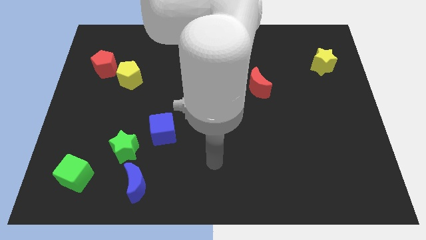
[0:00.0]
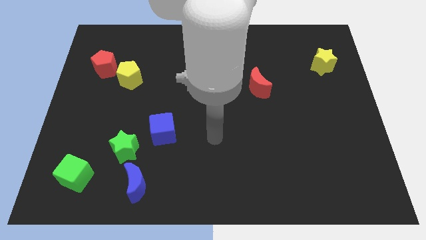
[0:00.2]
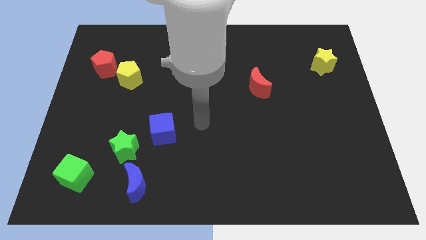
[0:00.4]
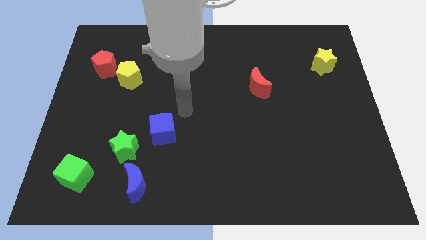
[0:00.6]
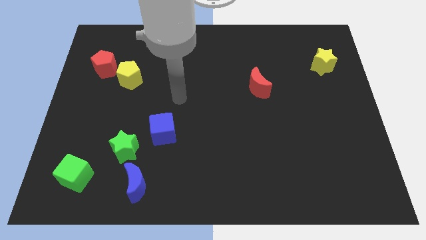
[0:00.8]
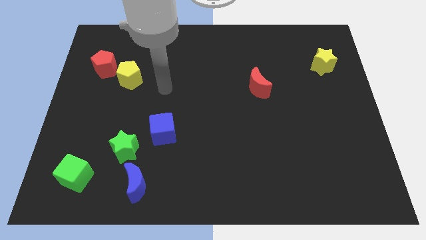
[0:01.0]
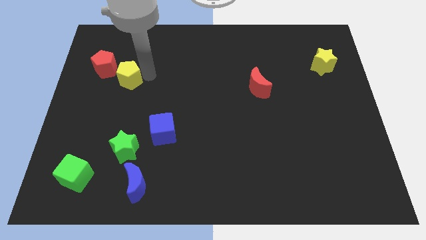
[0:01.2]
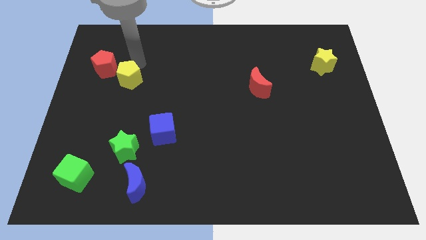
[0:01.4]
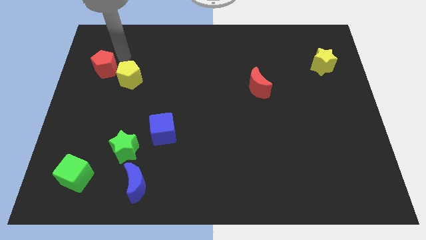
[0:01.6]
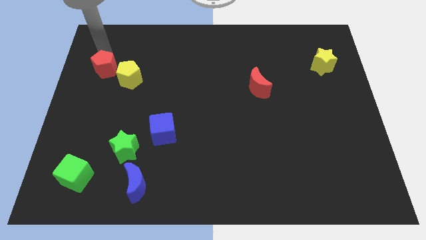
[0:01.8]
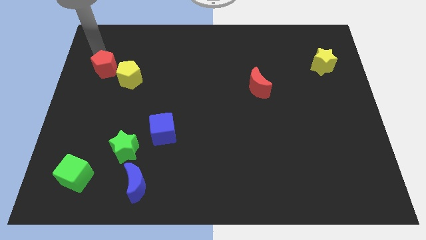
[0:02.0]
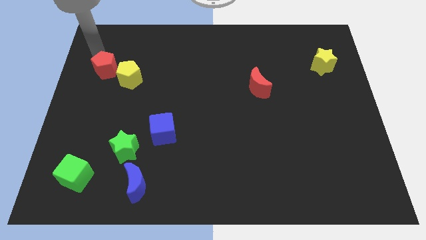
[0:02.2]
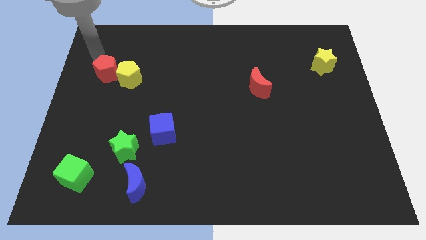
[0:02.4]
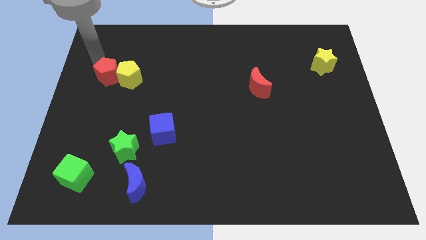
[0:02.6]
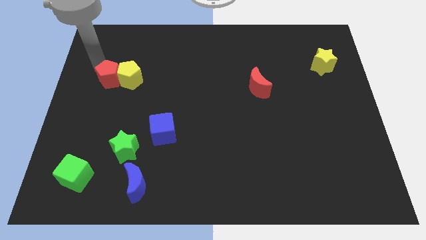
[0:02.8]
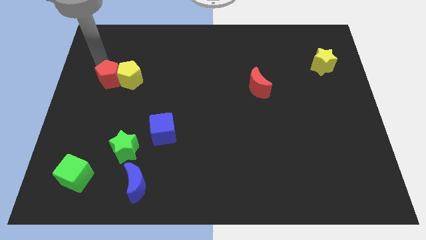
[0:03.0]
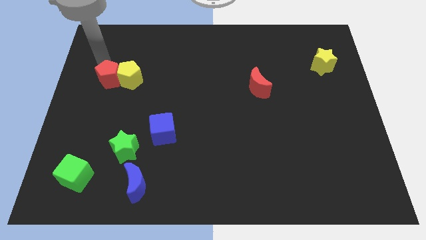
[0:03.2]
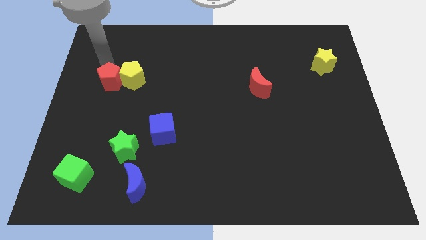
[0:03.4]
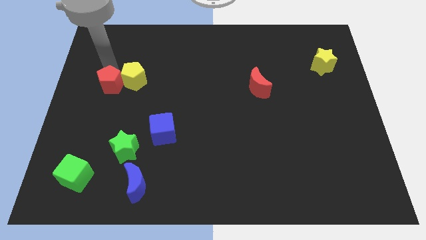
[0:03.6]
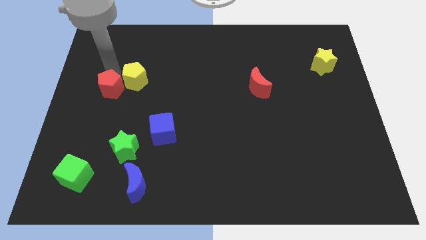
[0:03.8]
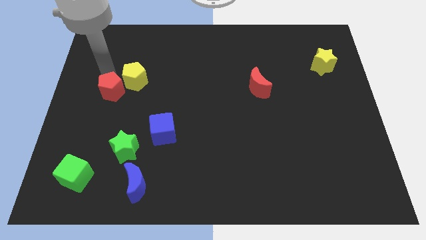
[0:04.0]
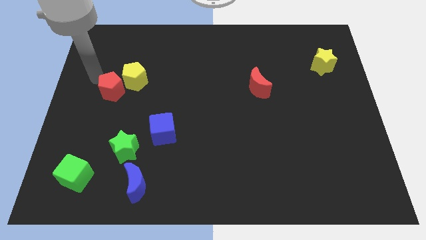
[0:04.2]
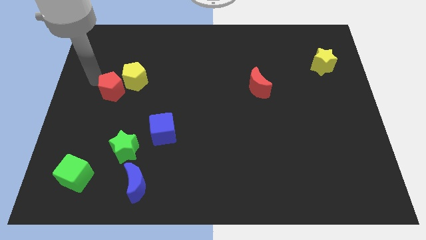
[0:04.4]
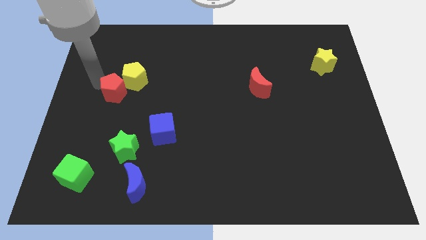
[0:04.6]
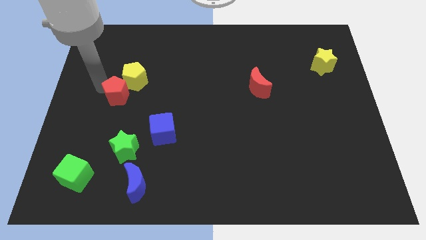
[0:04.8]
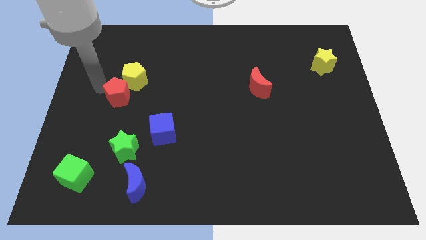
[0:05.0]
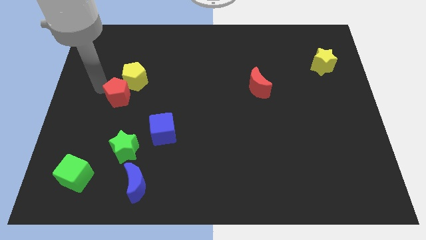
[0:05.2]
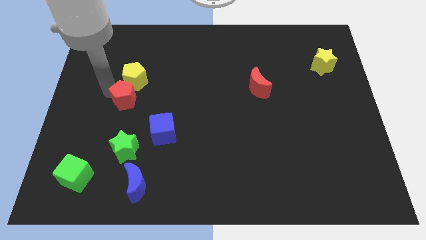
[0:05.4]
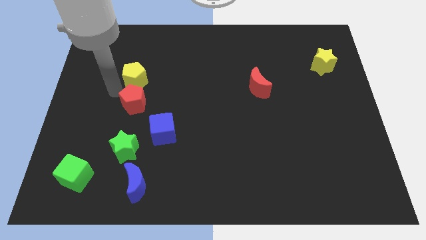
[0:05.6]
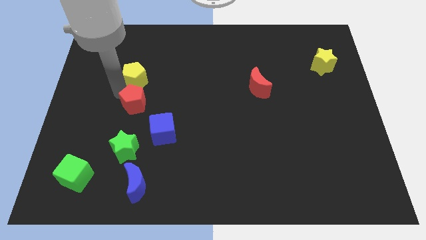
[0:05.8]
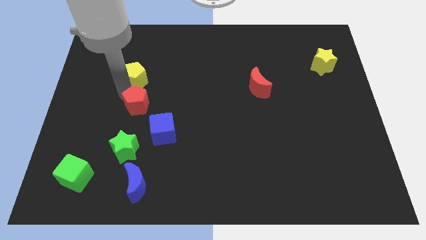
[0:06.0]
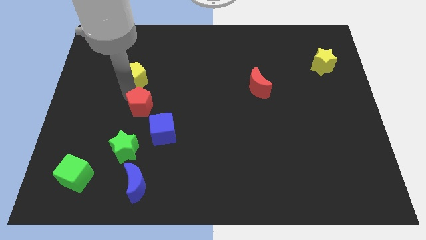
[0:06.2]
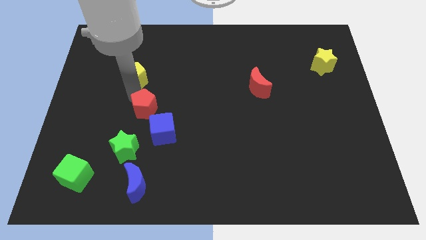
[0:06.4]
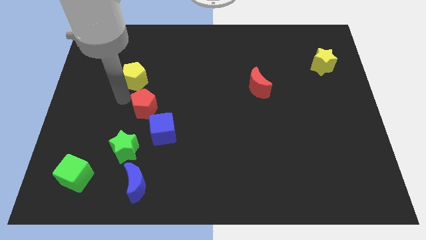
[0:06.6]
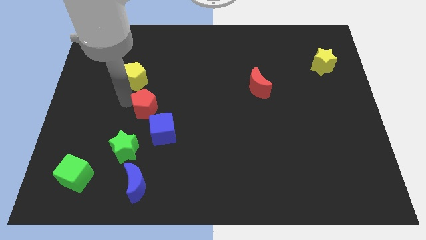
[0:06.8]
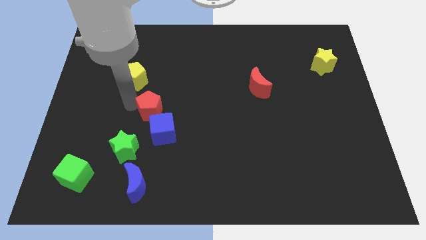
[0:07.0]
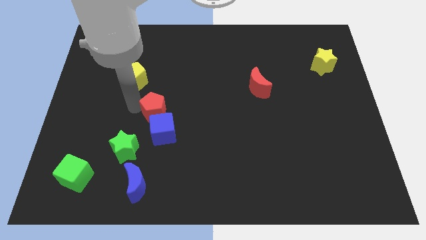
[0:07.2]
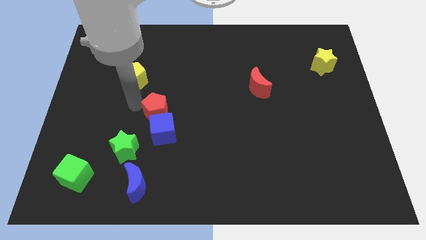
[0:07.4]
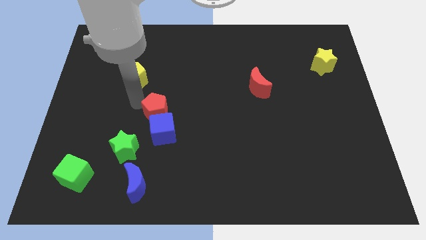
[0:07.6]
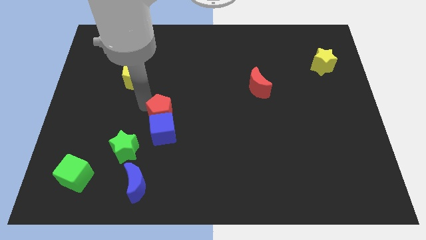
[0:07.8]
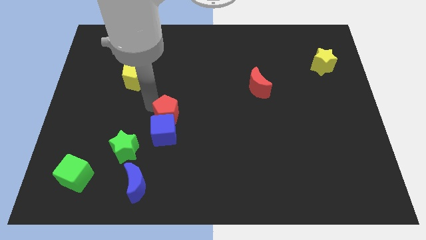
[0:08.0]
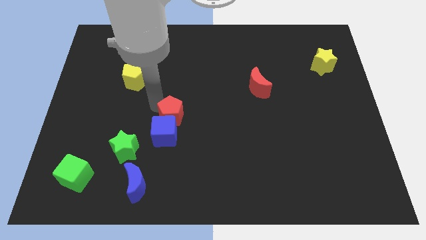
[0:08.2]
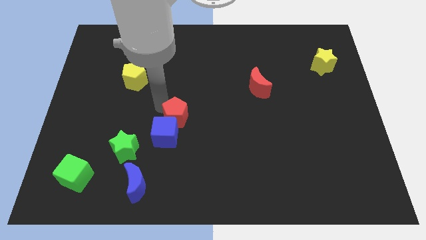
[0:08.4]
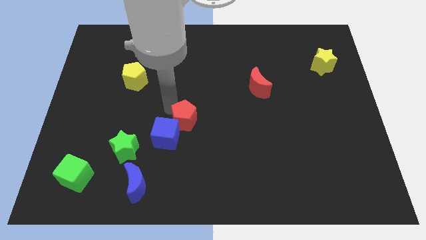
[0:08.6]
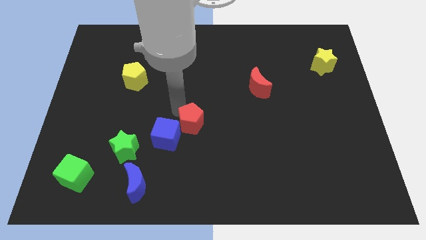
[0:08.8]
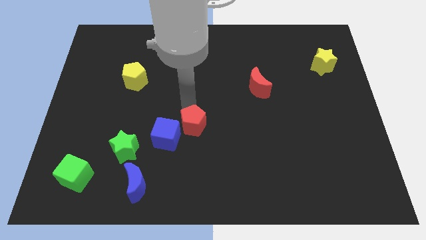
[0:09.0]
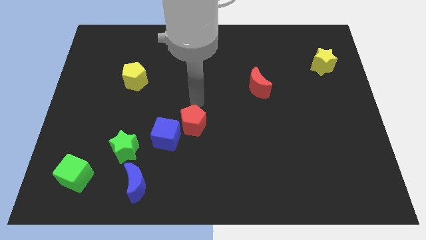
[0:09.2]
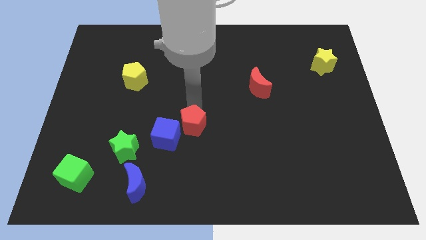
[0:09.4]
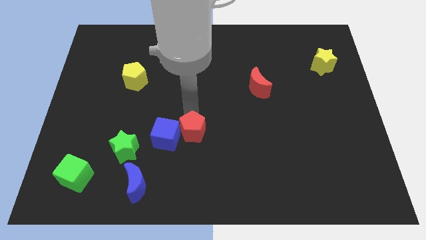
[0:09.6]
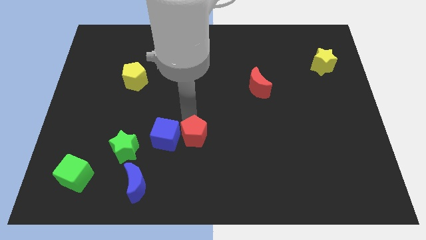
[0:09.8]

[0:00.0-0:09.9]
push the red pentagon diagonally down and to the right of the blue cube

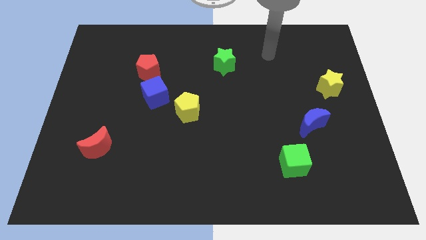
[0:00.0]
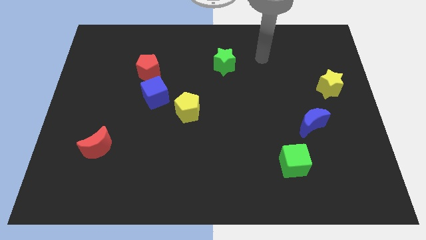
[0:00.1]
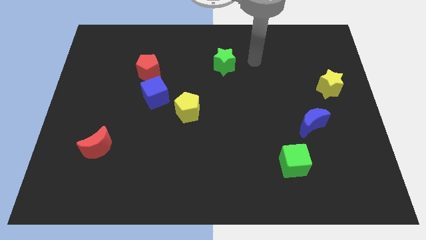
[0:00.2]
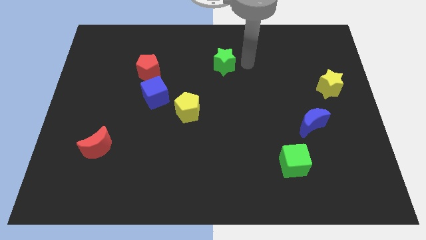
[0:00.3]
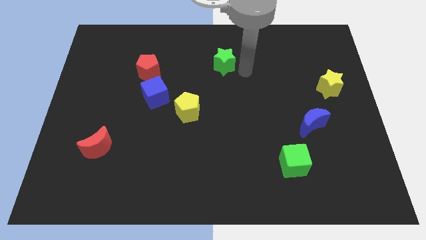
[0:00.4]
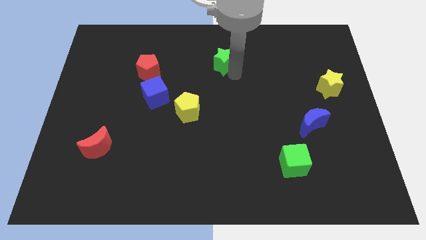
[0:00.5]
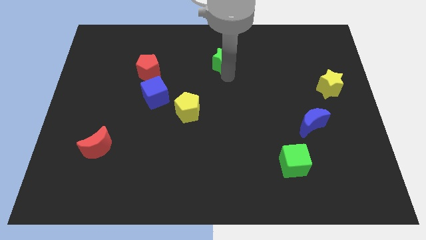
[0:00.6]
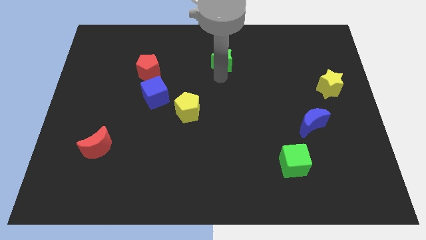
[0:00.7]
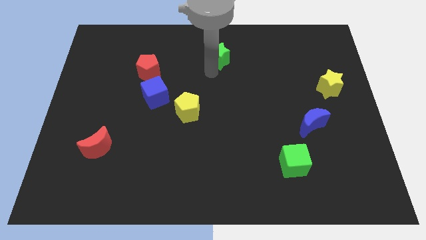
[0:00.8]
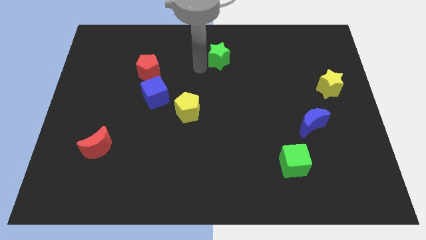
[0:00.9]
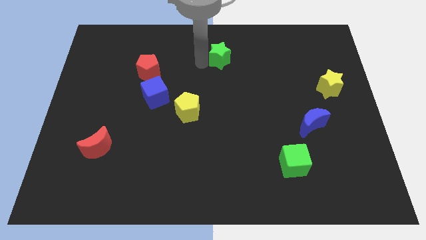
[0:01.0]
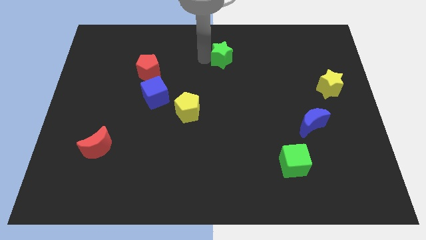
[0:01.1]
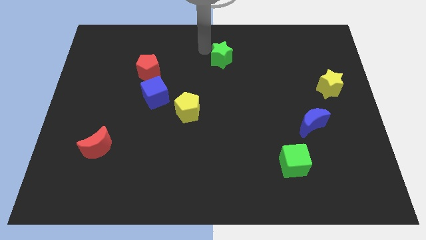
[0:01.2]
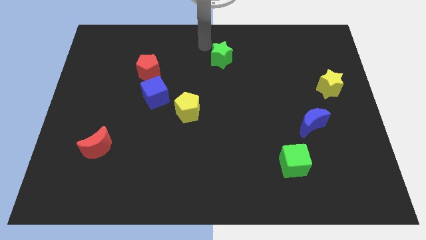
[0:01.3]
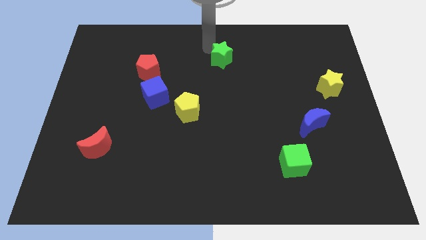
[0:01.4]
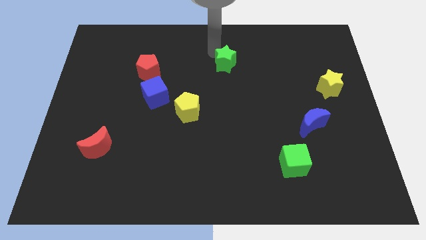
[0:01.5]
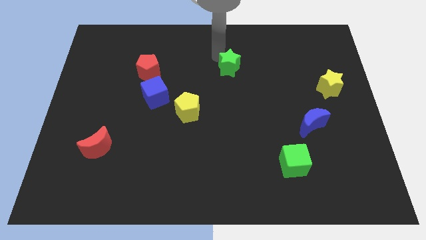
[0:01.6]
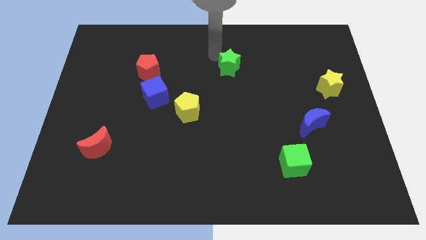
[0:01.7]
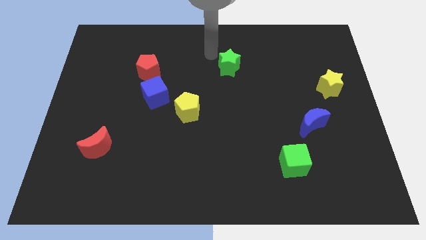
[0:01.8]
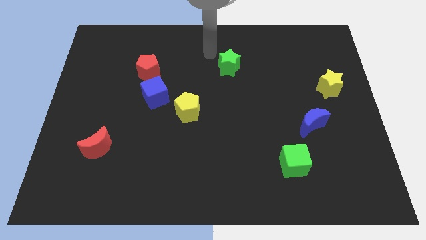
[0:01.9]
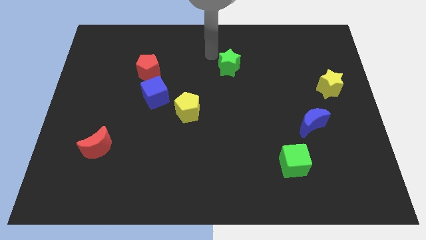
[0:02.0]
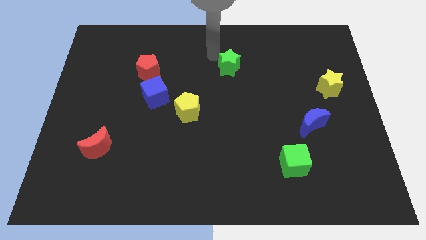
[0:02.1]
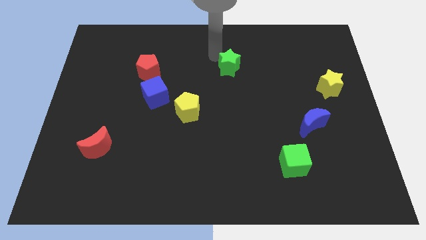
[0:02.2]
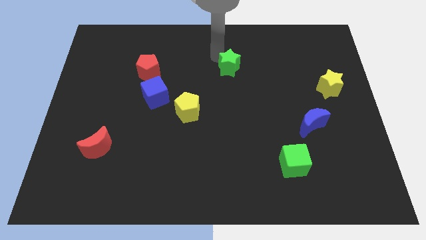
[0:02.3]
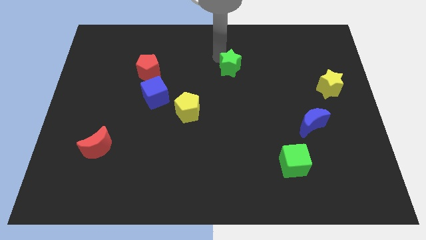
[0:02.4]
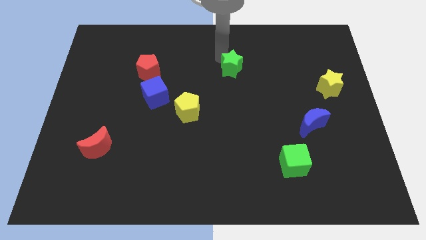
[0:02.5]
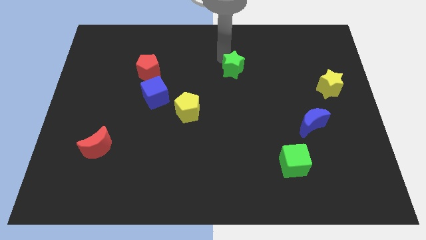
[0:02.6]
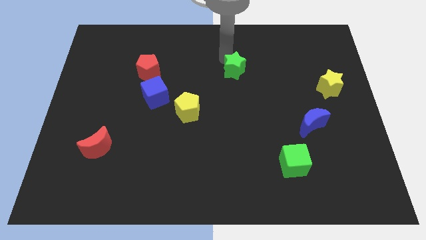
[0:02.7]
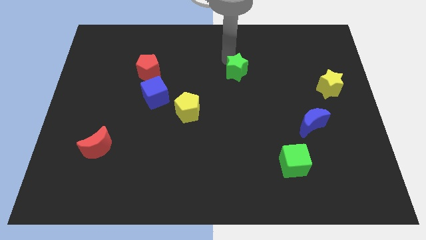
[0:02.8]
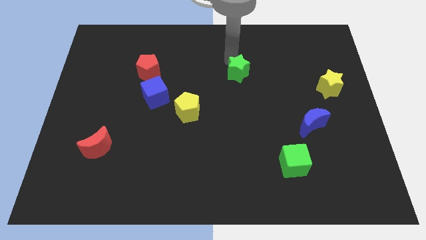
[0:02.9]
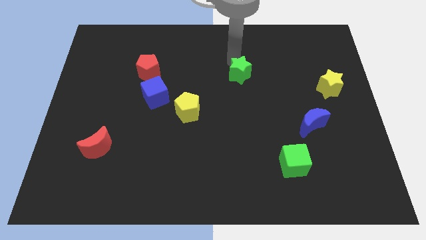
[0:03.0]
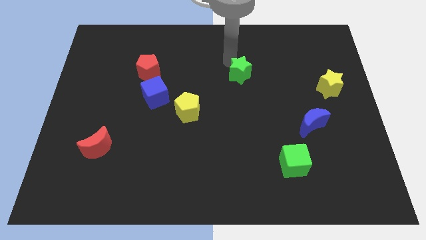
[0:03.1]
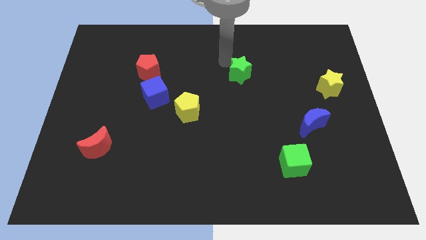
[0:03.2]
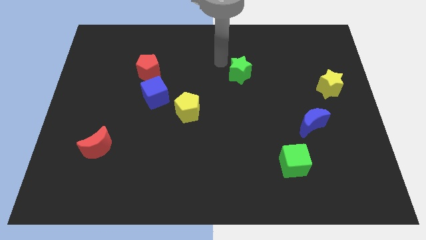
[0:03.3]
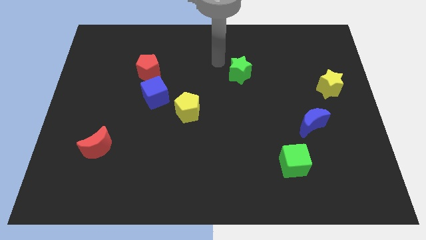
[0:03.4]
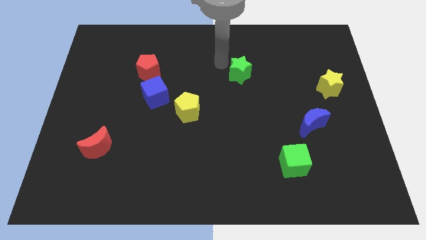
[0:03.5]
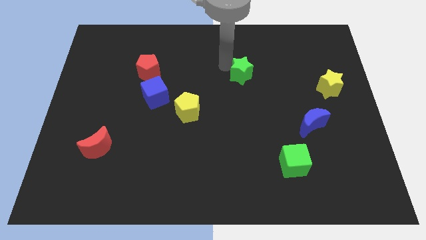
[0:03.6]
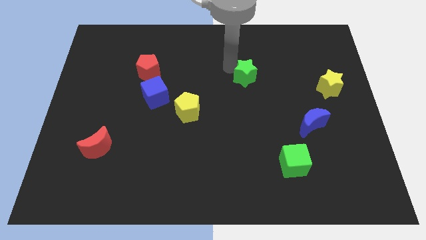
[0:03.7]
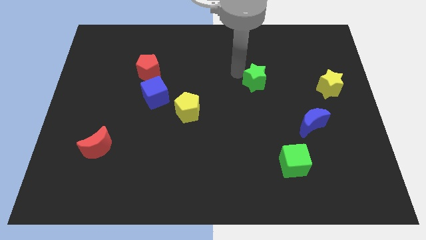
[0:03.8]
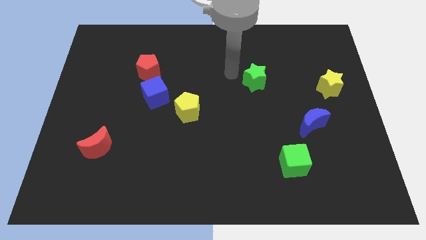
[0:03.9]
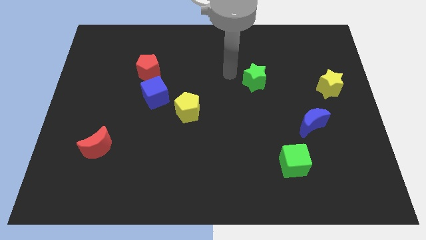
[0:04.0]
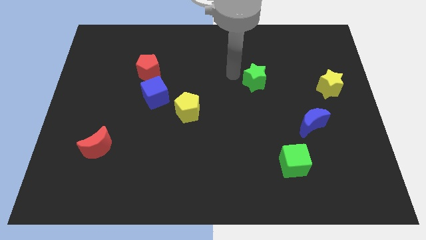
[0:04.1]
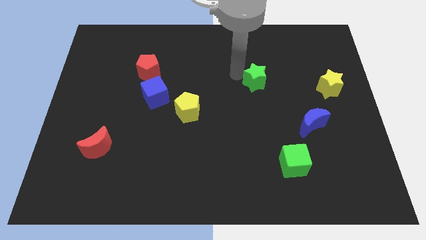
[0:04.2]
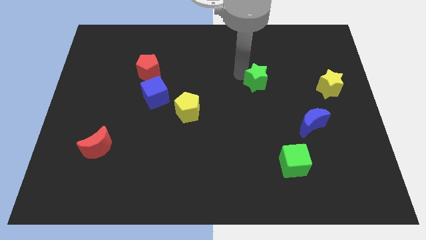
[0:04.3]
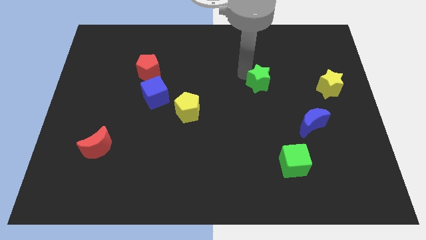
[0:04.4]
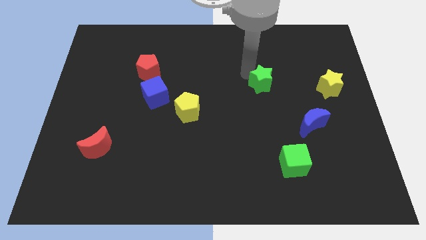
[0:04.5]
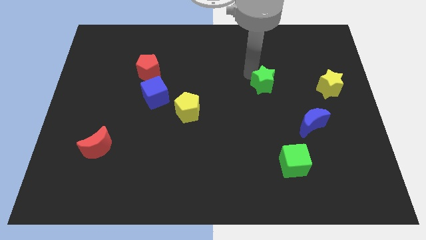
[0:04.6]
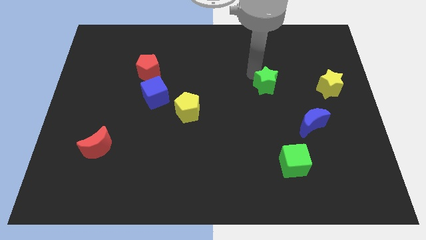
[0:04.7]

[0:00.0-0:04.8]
put the green star just left of the yellow star
